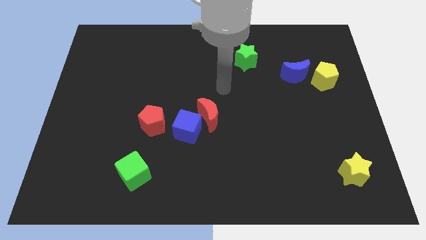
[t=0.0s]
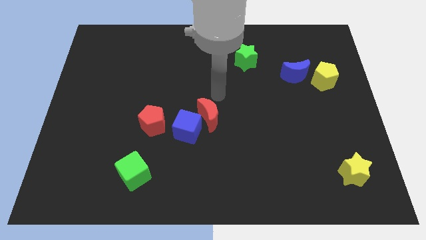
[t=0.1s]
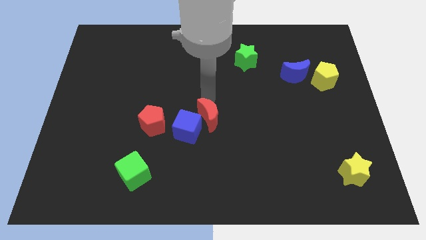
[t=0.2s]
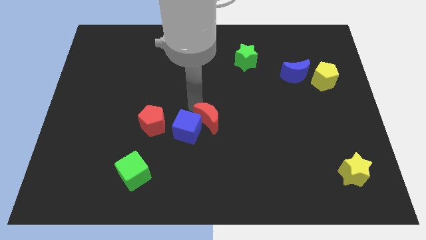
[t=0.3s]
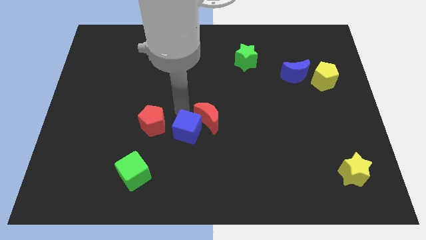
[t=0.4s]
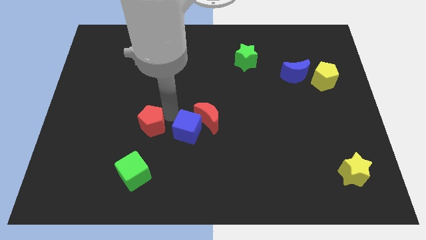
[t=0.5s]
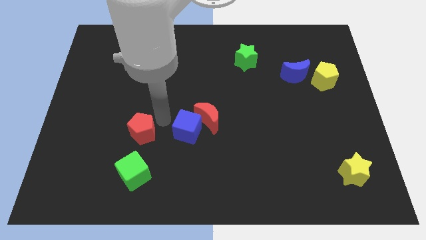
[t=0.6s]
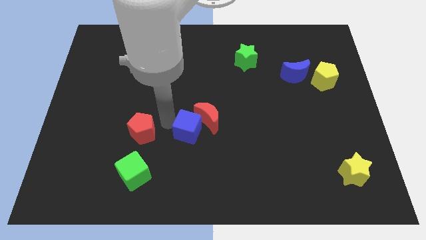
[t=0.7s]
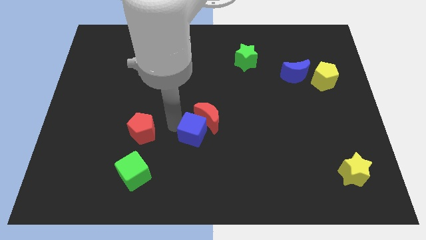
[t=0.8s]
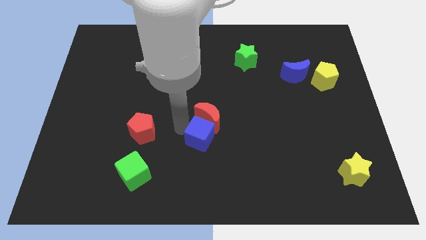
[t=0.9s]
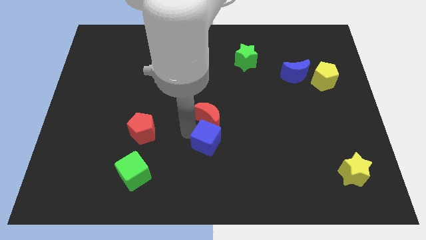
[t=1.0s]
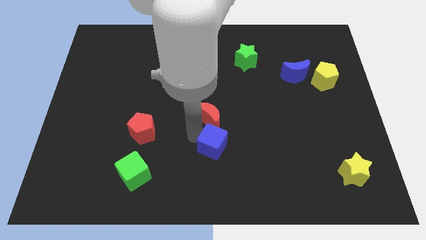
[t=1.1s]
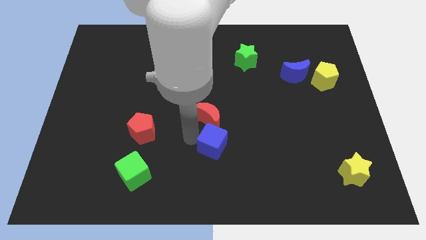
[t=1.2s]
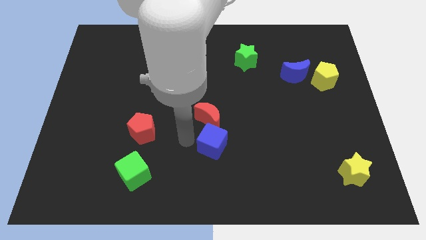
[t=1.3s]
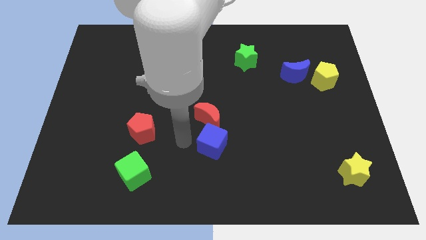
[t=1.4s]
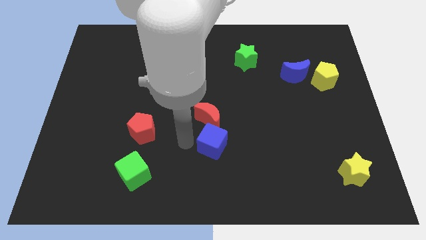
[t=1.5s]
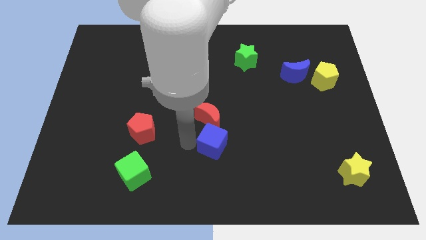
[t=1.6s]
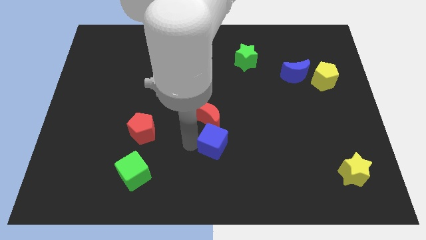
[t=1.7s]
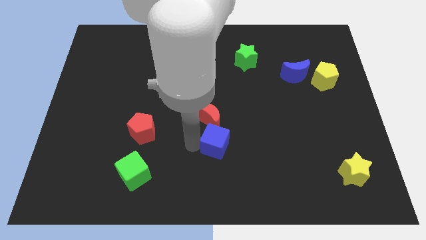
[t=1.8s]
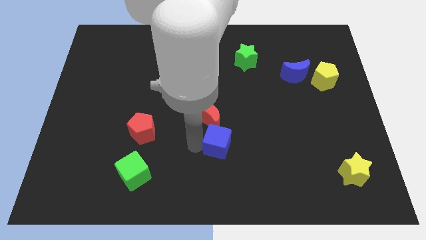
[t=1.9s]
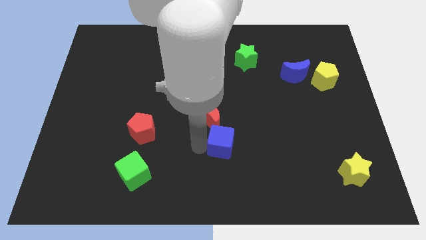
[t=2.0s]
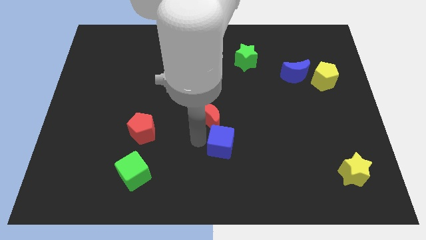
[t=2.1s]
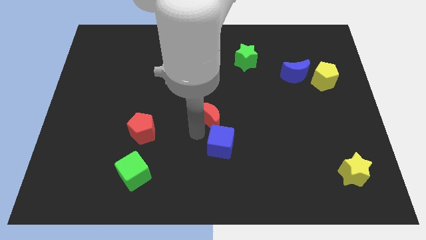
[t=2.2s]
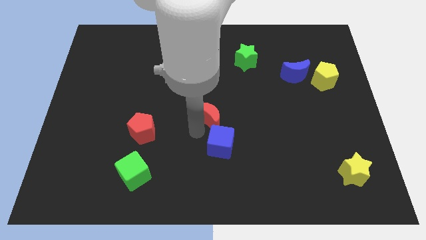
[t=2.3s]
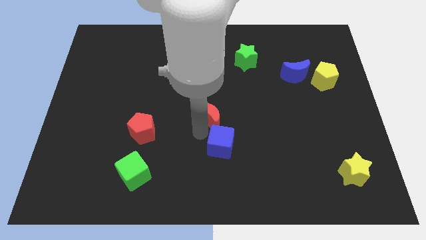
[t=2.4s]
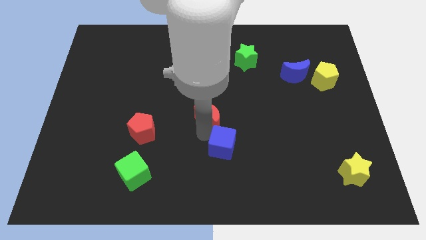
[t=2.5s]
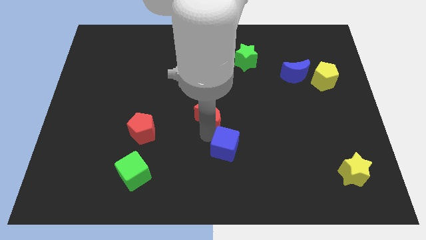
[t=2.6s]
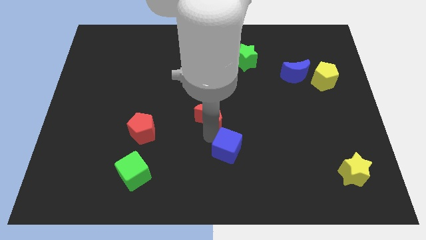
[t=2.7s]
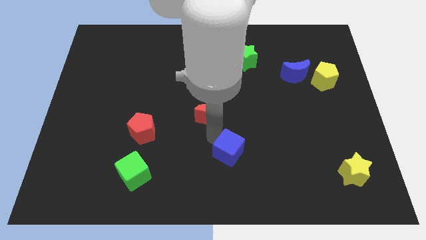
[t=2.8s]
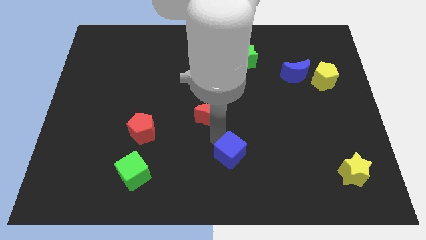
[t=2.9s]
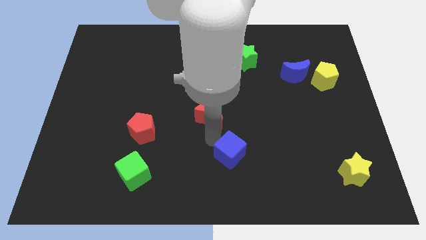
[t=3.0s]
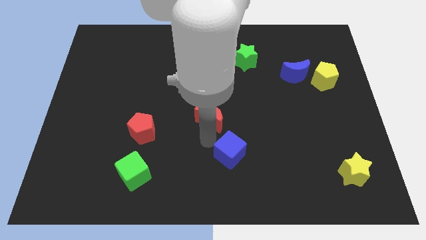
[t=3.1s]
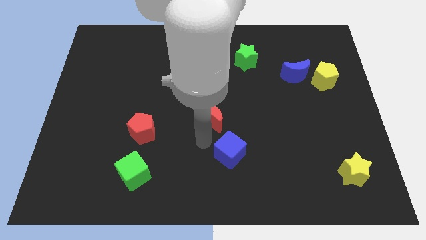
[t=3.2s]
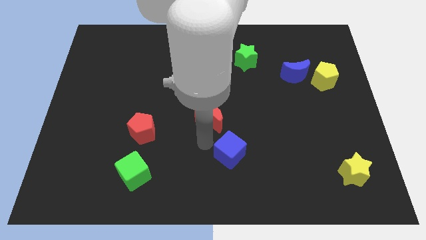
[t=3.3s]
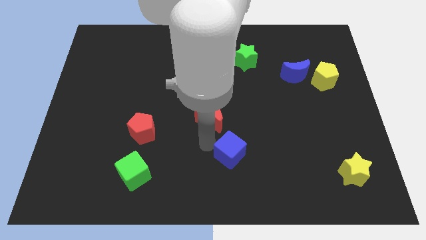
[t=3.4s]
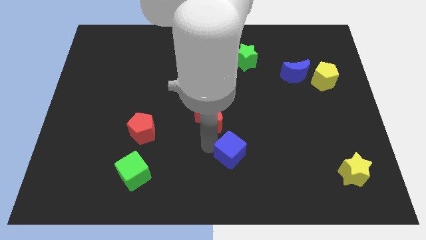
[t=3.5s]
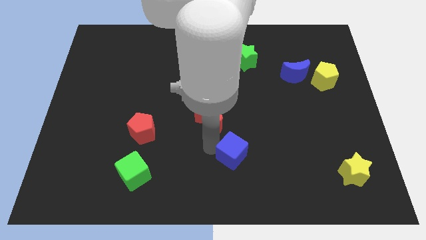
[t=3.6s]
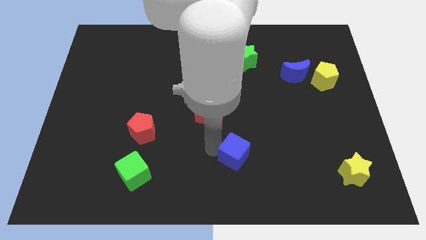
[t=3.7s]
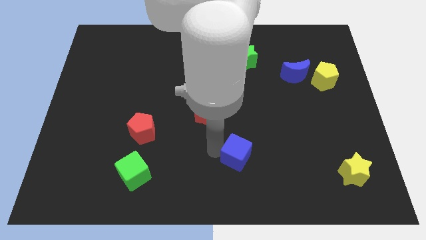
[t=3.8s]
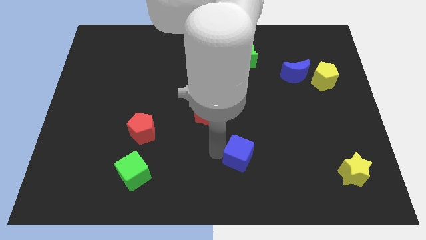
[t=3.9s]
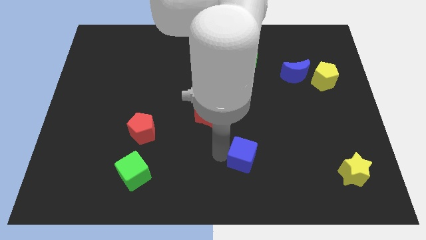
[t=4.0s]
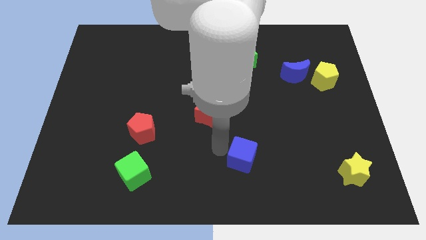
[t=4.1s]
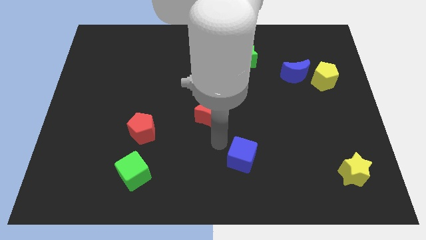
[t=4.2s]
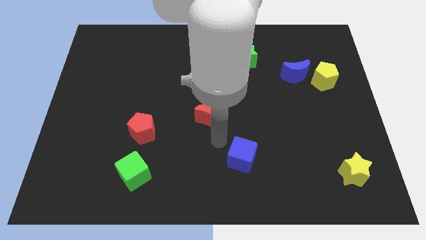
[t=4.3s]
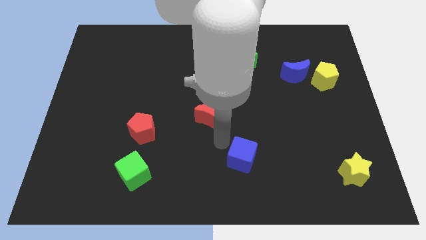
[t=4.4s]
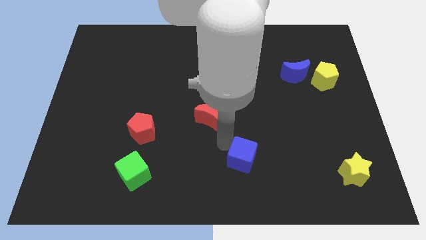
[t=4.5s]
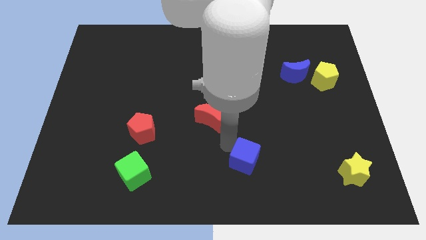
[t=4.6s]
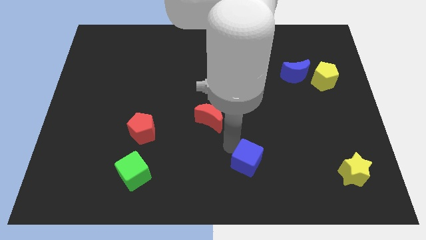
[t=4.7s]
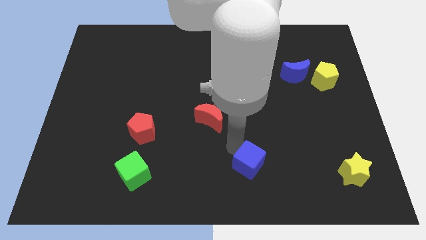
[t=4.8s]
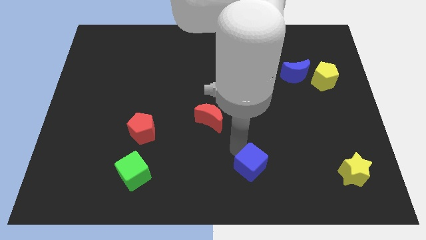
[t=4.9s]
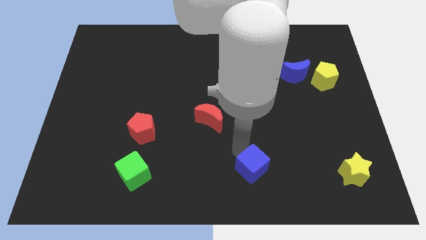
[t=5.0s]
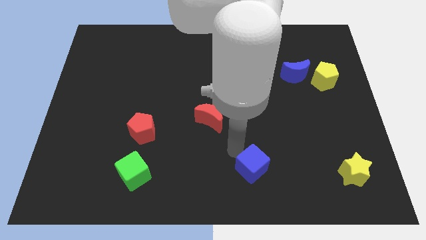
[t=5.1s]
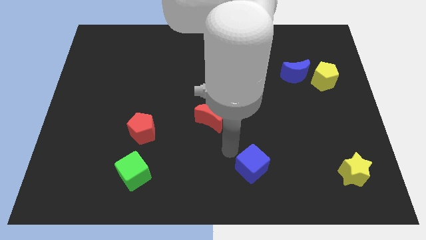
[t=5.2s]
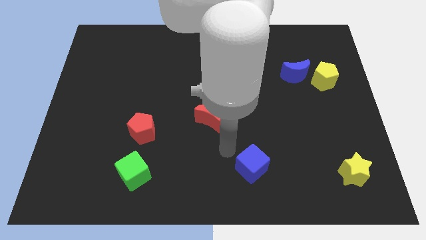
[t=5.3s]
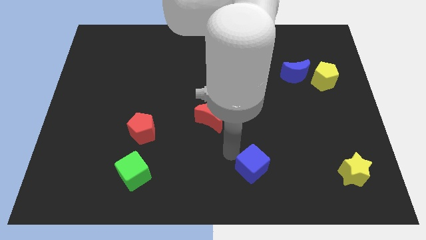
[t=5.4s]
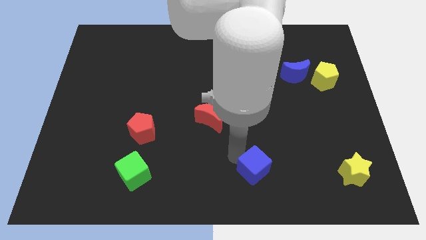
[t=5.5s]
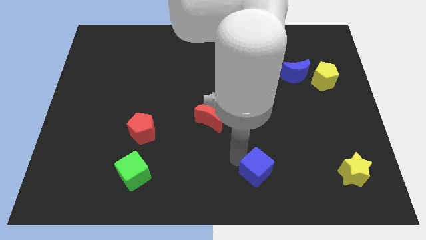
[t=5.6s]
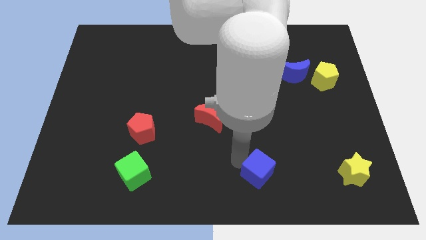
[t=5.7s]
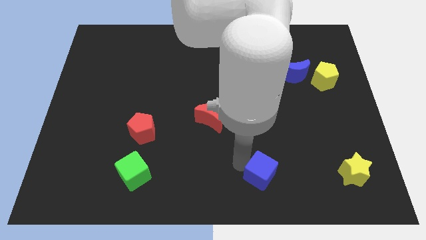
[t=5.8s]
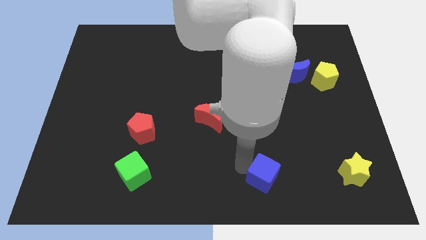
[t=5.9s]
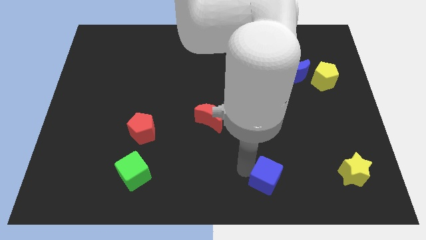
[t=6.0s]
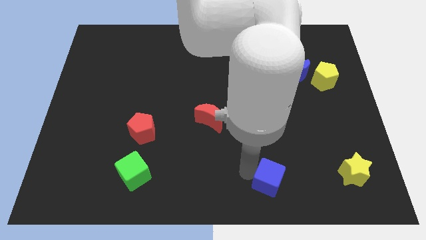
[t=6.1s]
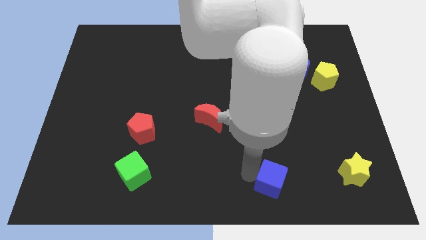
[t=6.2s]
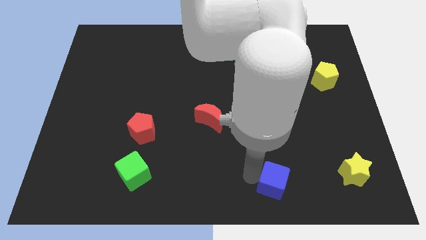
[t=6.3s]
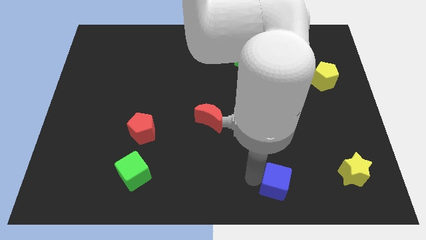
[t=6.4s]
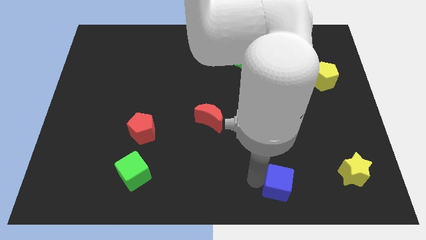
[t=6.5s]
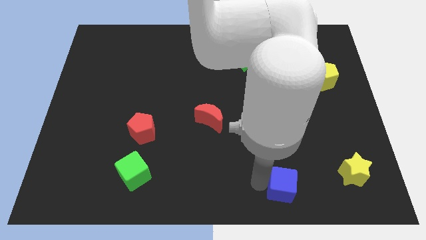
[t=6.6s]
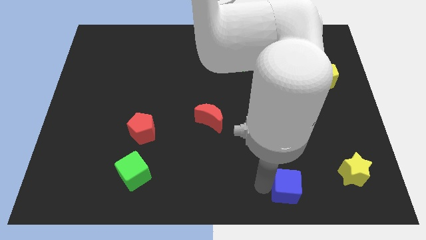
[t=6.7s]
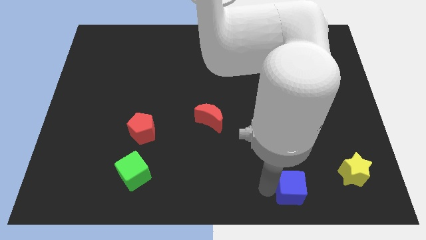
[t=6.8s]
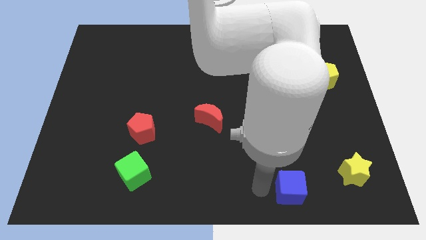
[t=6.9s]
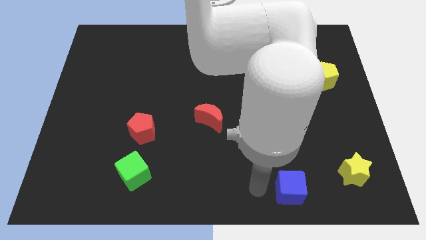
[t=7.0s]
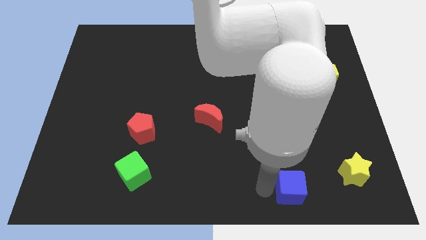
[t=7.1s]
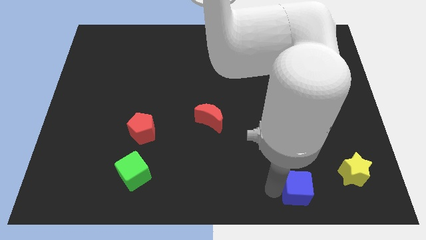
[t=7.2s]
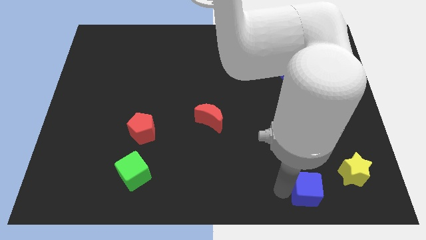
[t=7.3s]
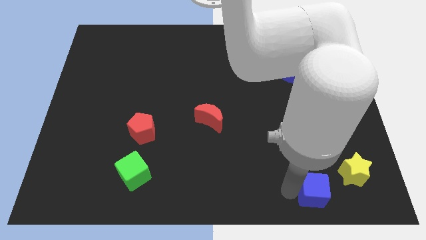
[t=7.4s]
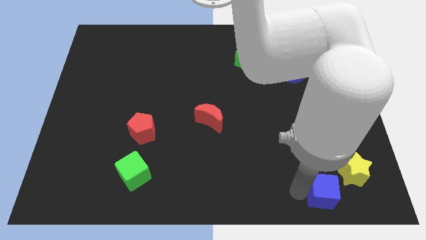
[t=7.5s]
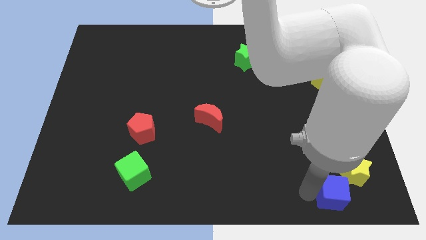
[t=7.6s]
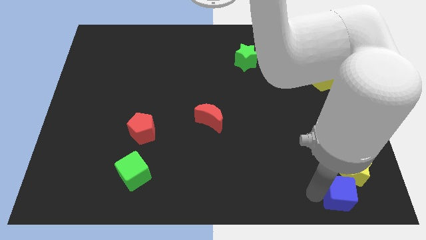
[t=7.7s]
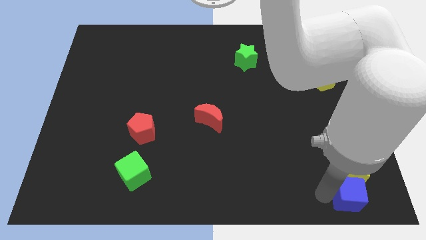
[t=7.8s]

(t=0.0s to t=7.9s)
slide the blue cube to the bottom right
